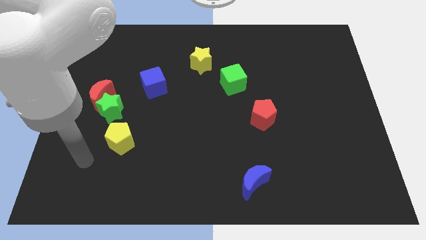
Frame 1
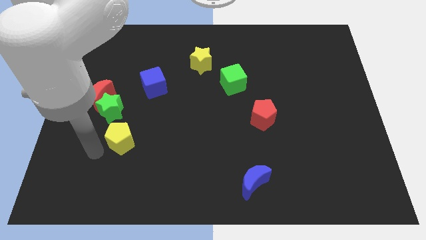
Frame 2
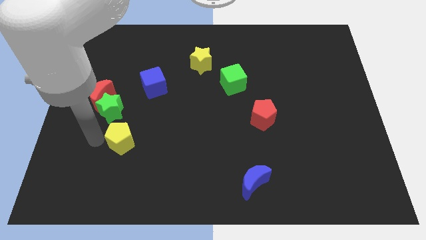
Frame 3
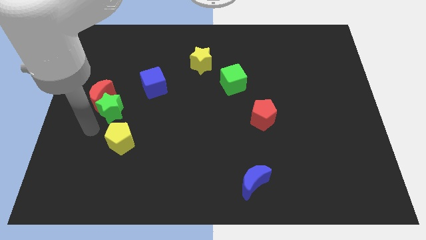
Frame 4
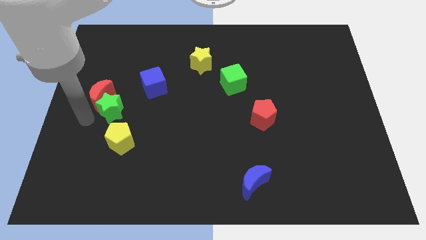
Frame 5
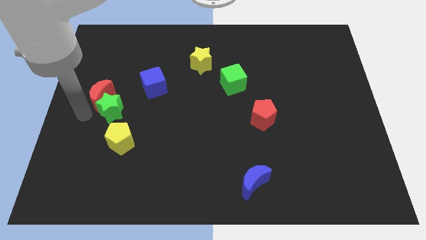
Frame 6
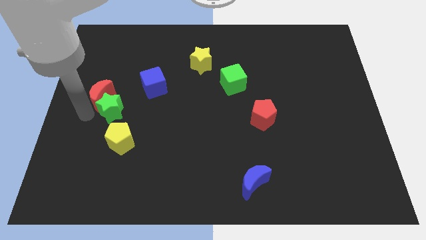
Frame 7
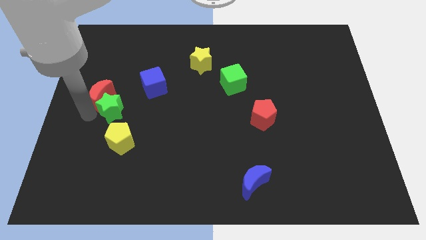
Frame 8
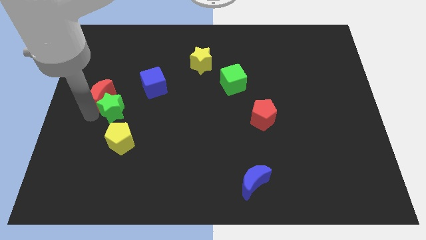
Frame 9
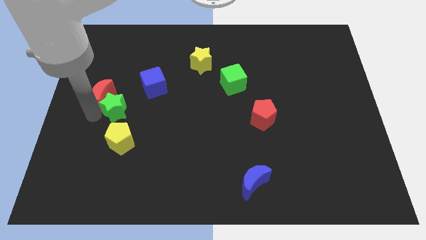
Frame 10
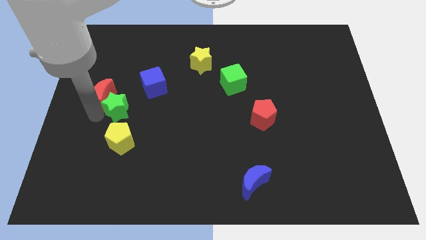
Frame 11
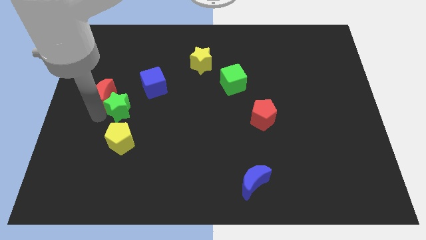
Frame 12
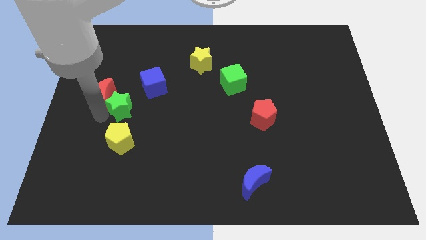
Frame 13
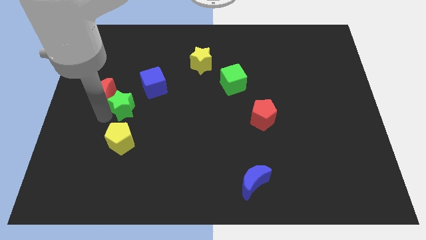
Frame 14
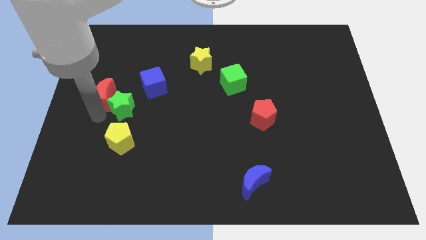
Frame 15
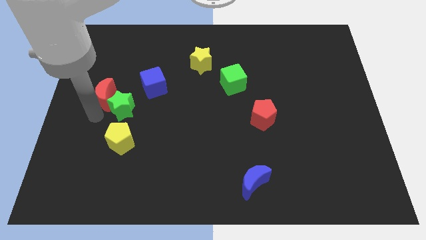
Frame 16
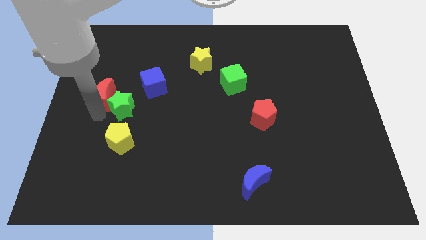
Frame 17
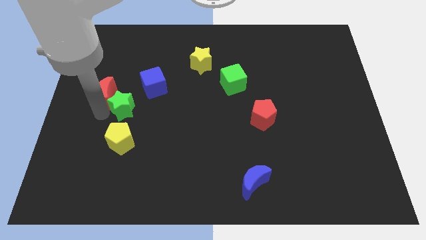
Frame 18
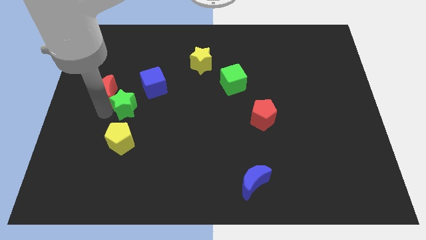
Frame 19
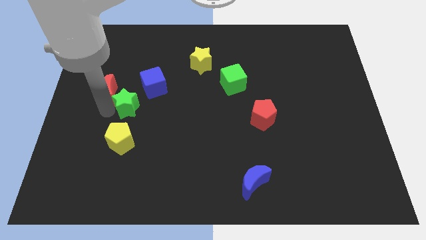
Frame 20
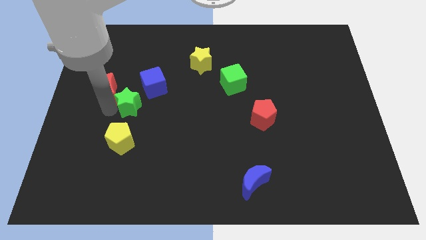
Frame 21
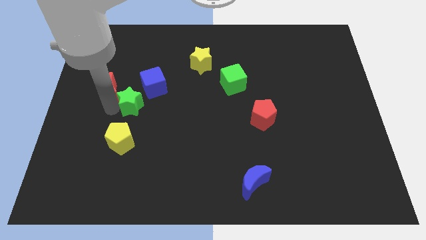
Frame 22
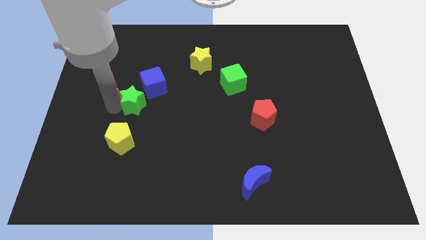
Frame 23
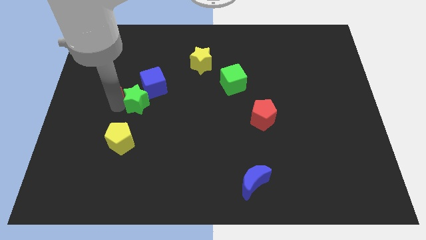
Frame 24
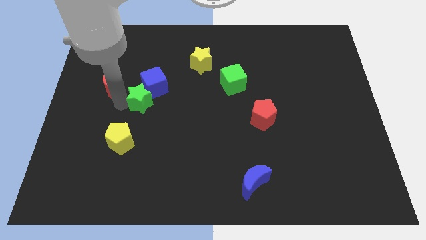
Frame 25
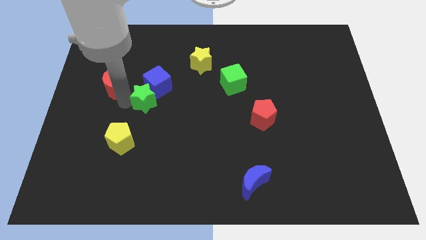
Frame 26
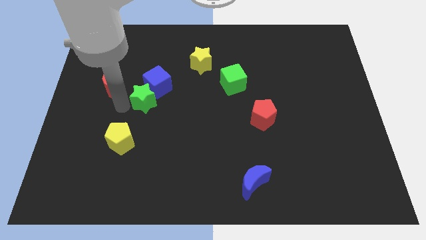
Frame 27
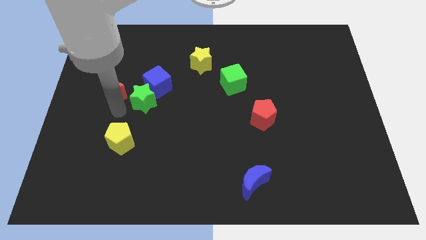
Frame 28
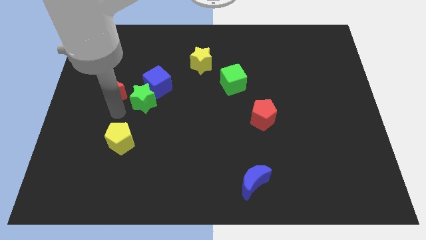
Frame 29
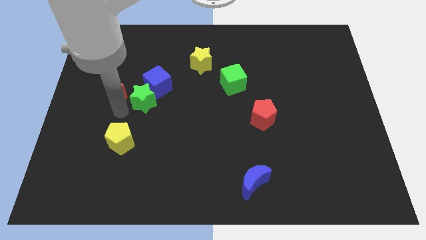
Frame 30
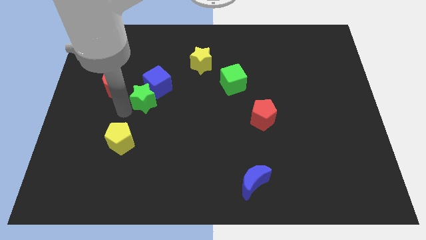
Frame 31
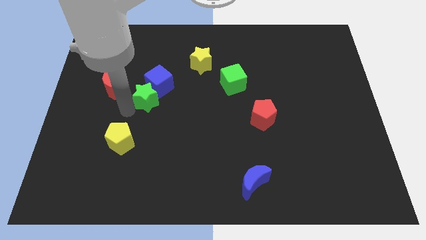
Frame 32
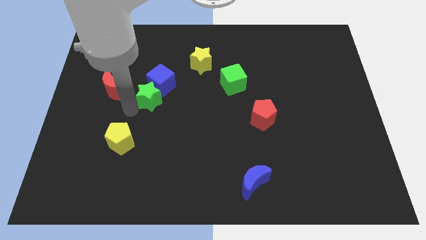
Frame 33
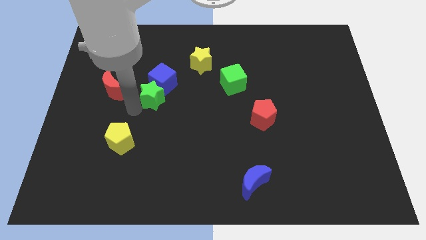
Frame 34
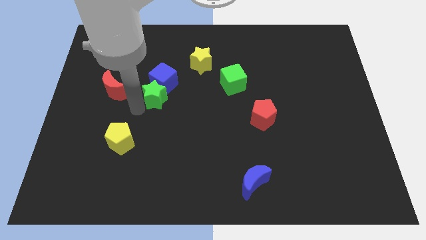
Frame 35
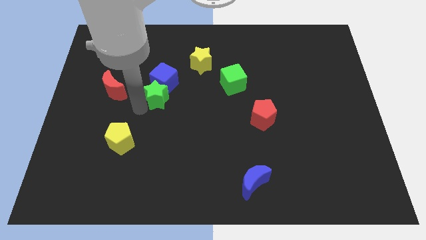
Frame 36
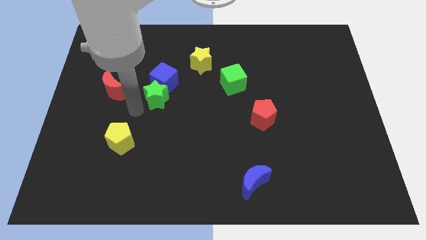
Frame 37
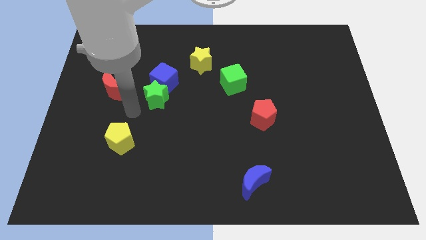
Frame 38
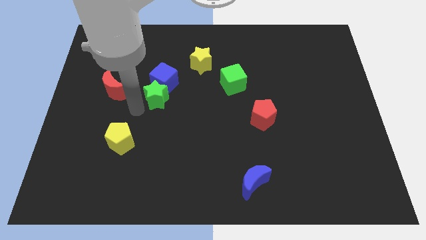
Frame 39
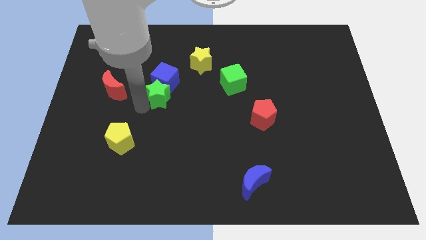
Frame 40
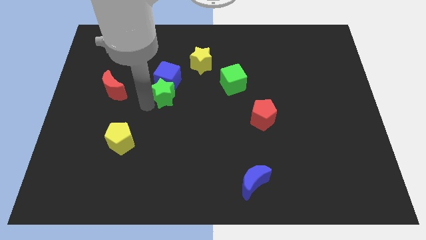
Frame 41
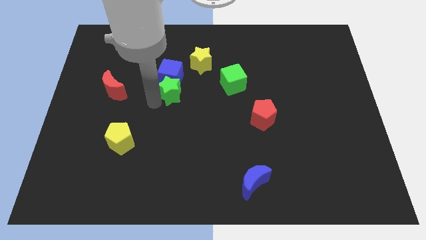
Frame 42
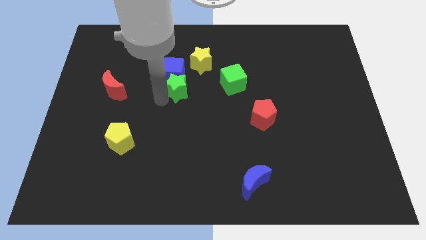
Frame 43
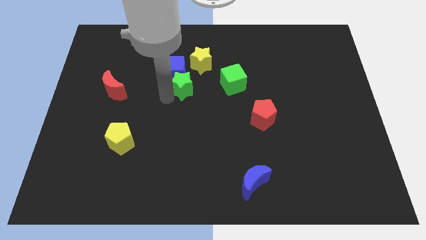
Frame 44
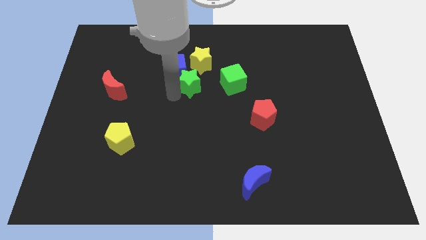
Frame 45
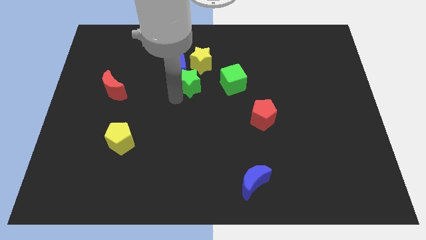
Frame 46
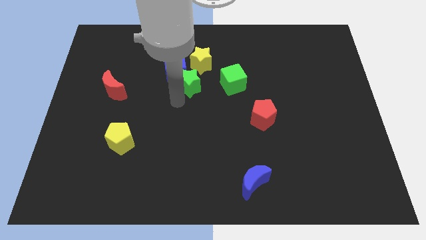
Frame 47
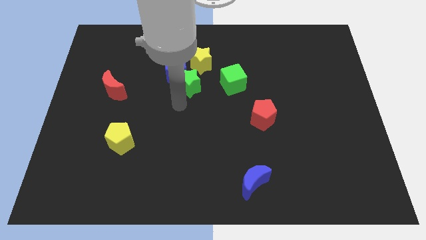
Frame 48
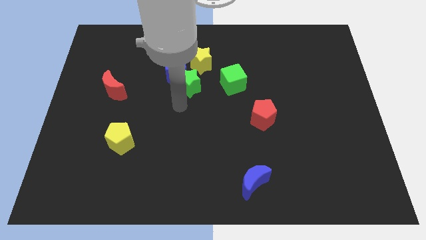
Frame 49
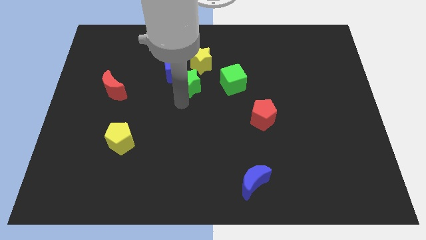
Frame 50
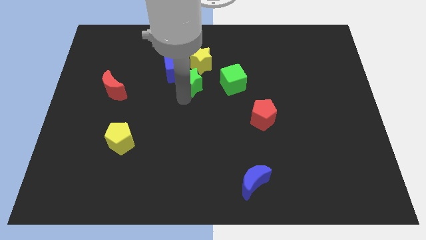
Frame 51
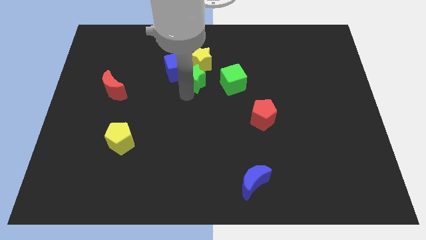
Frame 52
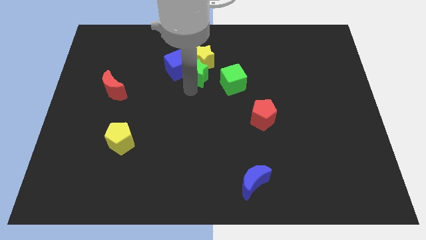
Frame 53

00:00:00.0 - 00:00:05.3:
slide the green star close to the yellow star

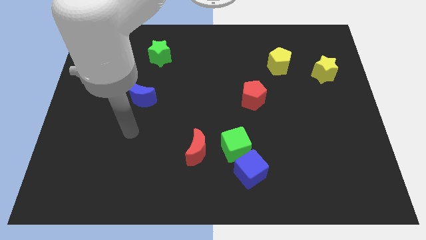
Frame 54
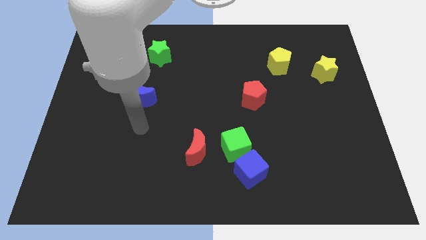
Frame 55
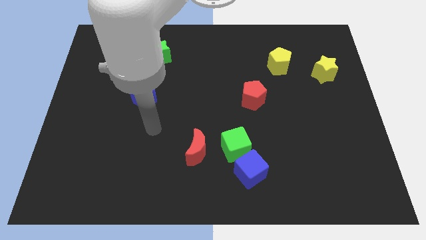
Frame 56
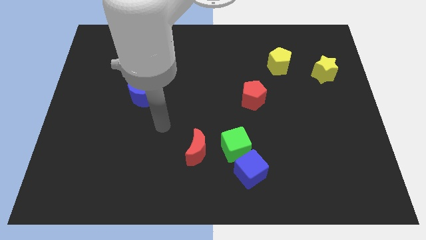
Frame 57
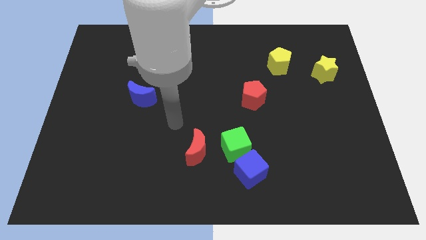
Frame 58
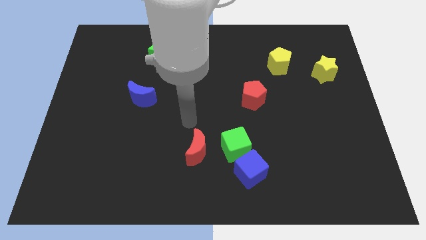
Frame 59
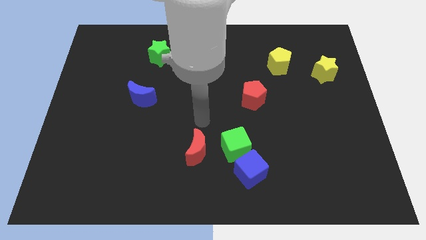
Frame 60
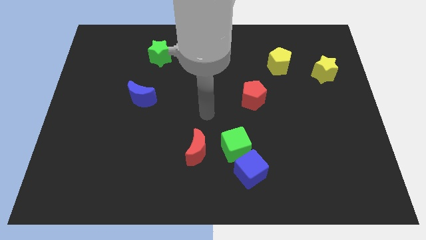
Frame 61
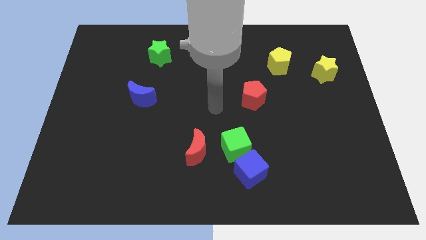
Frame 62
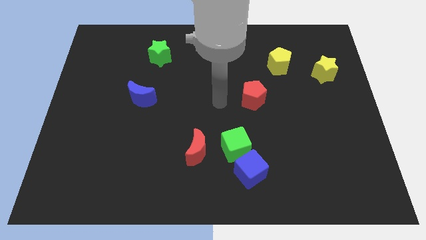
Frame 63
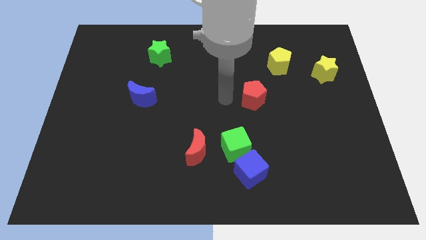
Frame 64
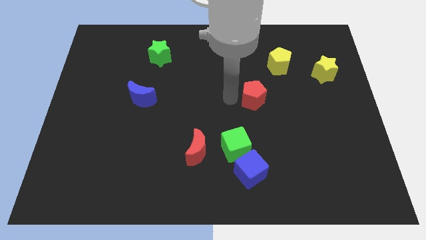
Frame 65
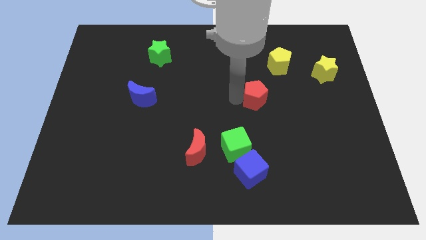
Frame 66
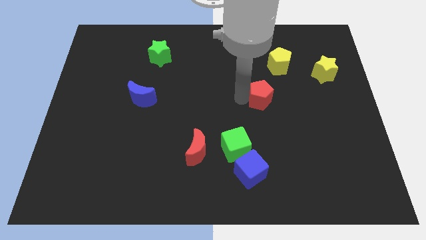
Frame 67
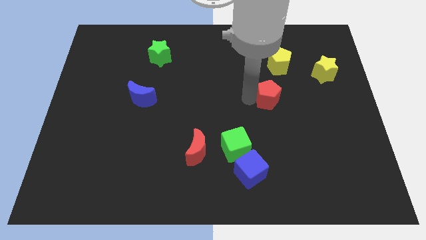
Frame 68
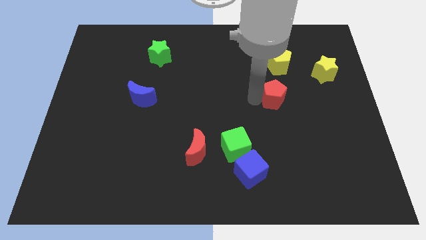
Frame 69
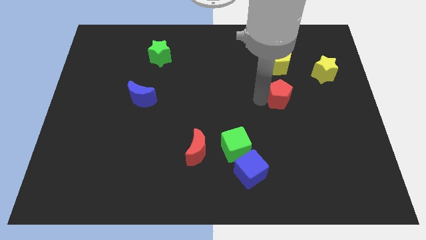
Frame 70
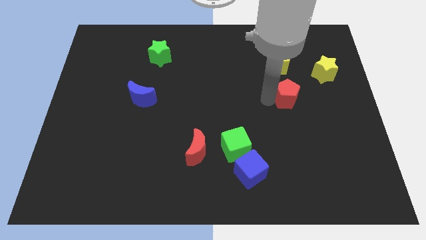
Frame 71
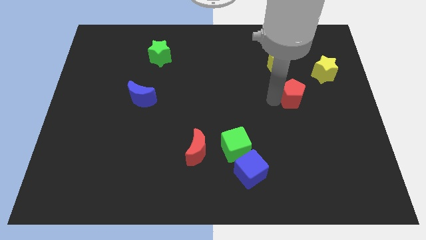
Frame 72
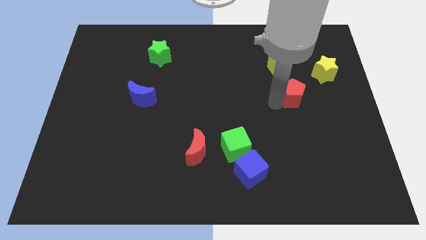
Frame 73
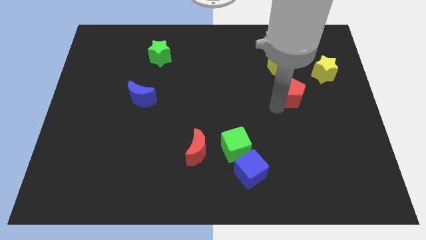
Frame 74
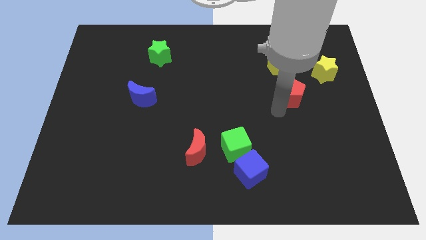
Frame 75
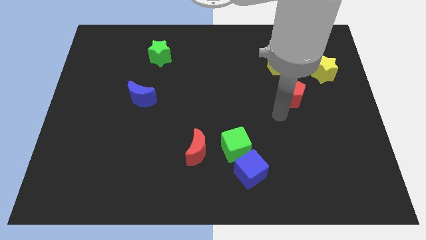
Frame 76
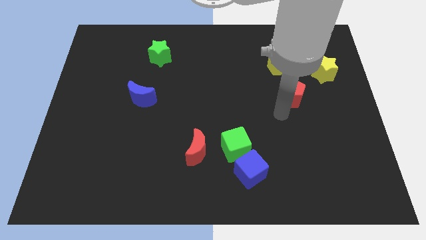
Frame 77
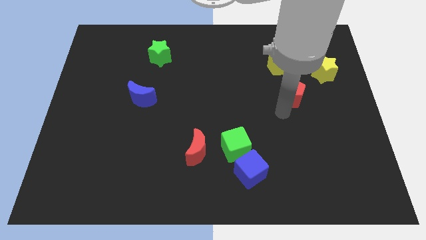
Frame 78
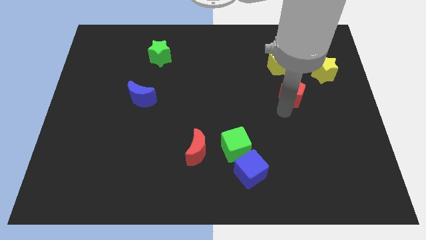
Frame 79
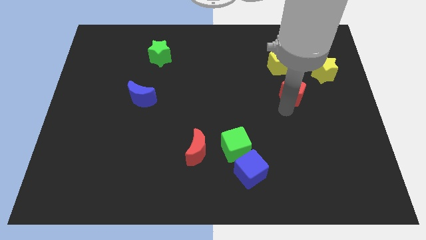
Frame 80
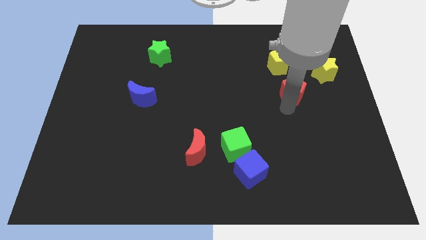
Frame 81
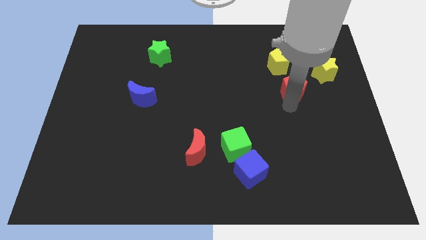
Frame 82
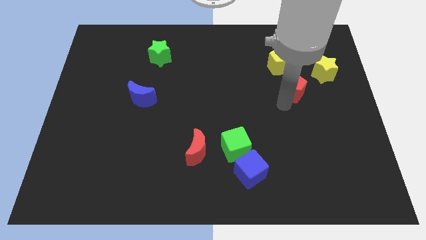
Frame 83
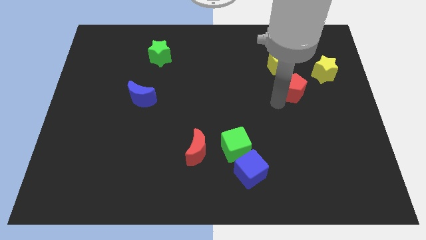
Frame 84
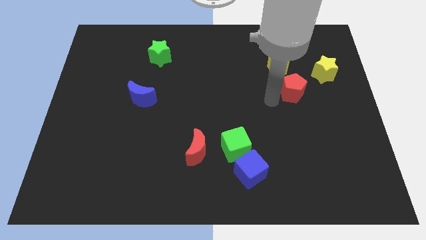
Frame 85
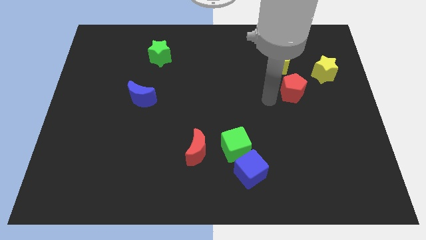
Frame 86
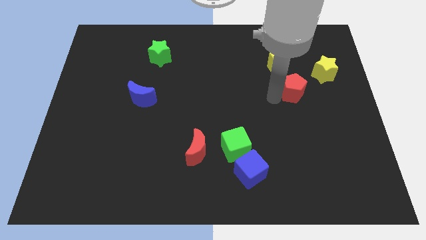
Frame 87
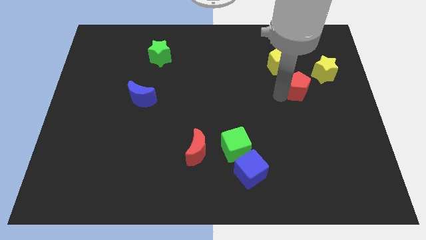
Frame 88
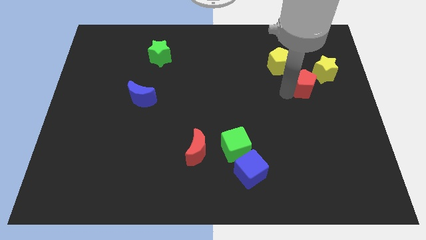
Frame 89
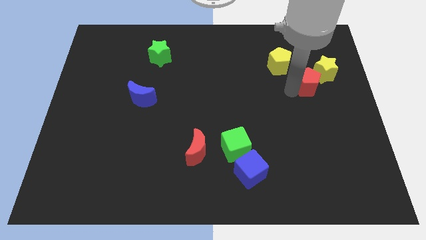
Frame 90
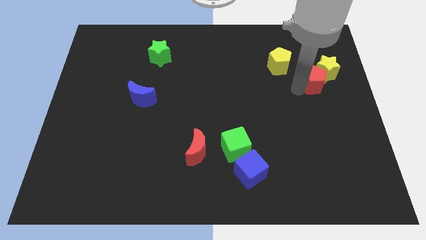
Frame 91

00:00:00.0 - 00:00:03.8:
put the red pentagon next to the yellow star
